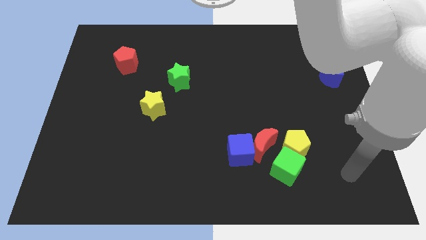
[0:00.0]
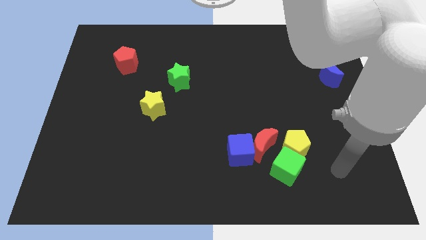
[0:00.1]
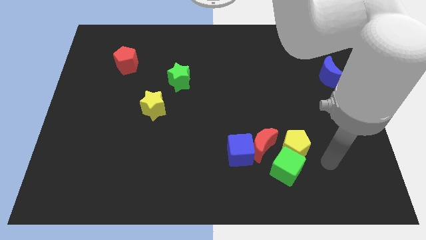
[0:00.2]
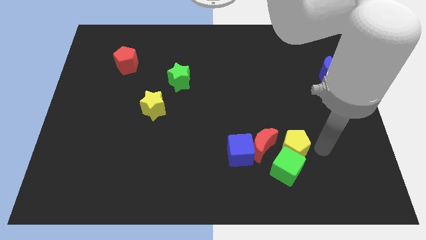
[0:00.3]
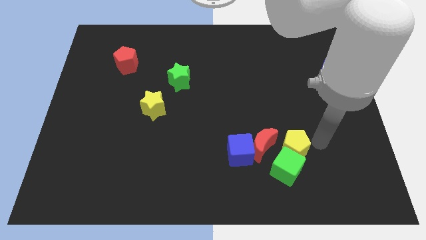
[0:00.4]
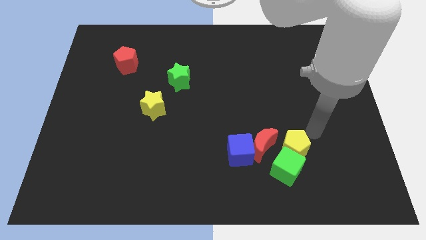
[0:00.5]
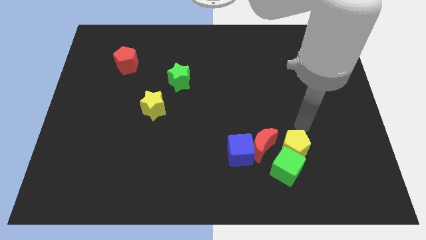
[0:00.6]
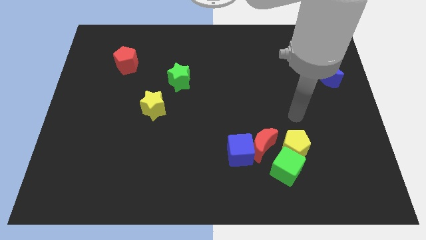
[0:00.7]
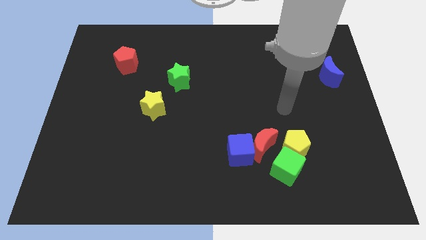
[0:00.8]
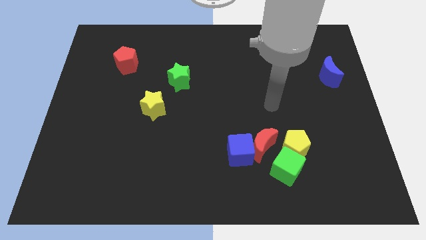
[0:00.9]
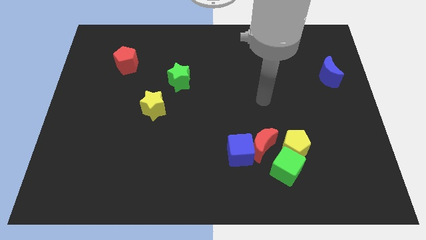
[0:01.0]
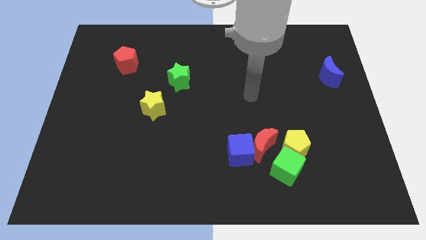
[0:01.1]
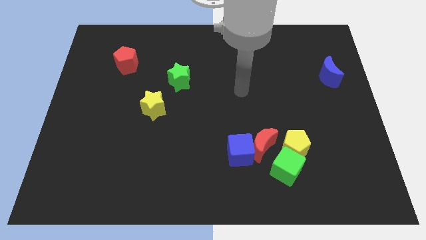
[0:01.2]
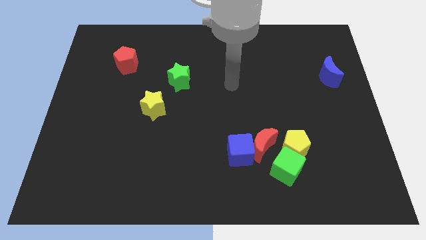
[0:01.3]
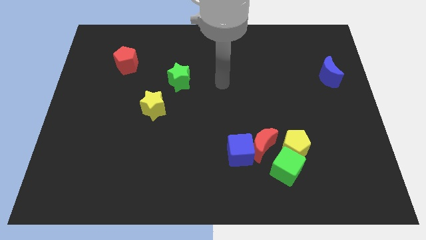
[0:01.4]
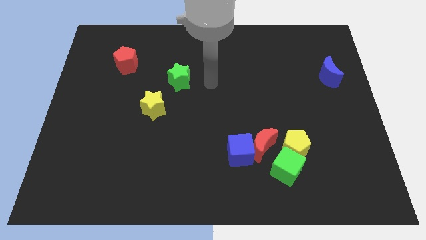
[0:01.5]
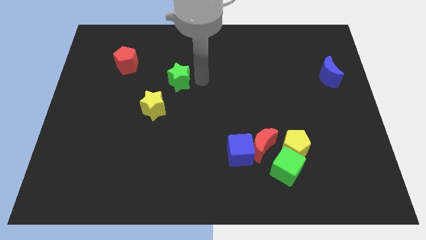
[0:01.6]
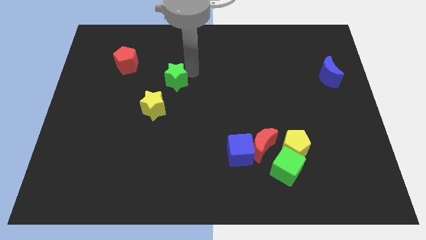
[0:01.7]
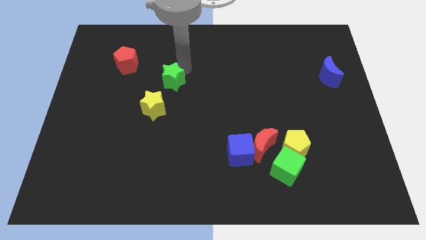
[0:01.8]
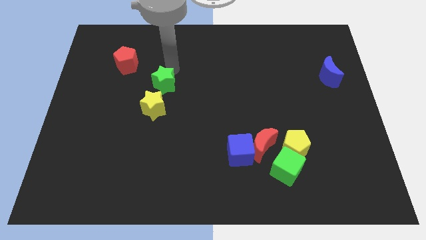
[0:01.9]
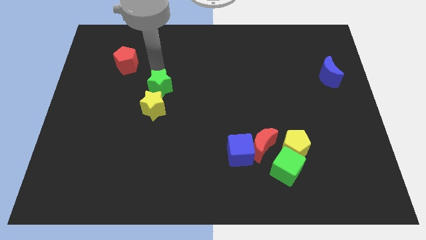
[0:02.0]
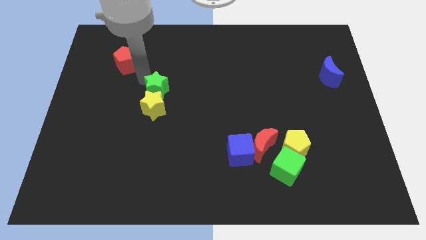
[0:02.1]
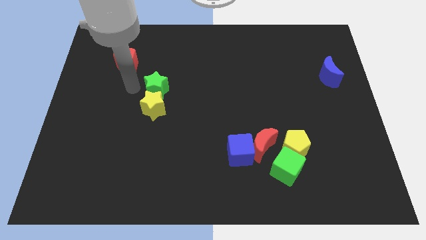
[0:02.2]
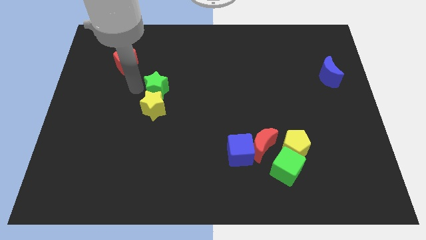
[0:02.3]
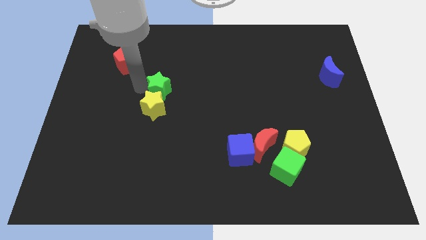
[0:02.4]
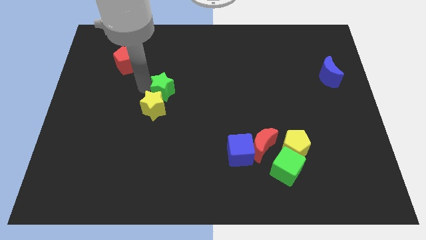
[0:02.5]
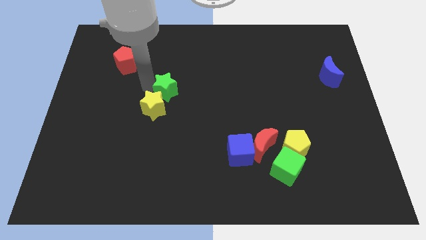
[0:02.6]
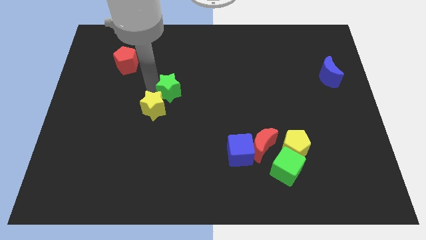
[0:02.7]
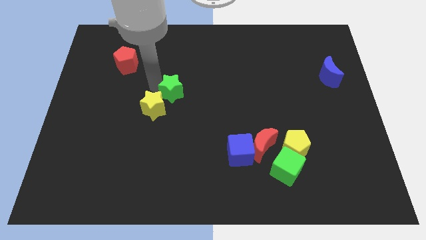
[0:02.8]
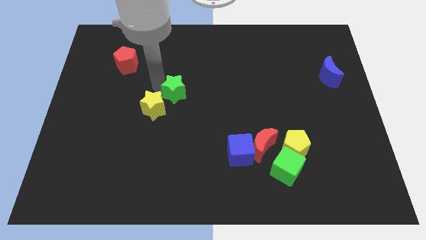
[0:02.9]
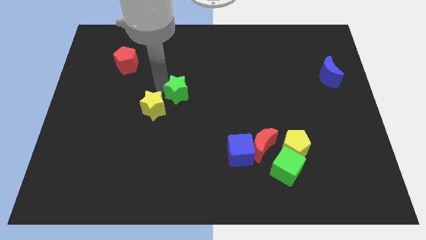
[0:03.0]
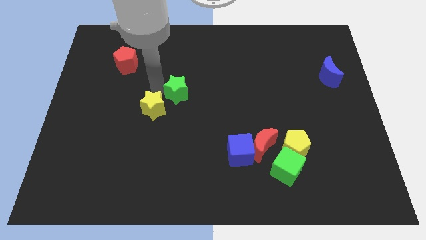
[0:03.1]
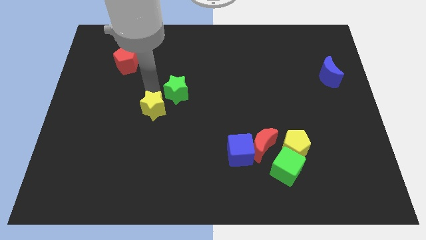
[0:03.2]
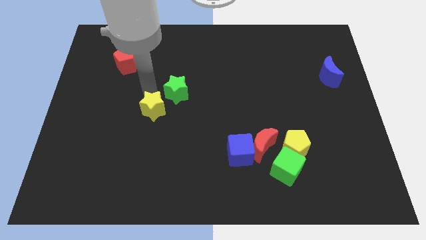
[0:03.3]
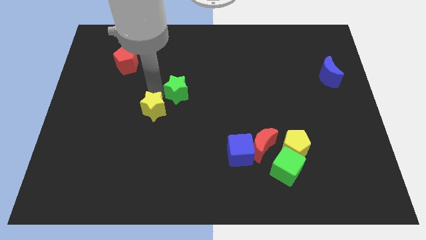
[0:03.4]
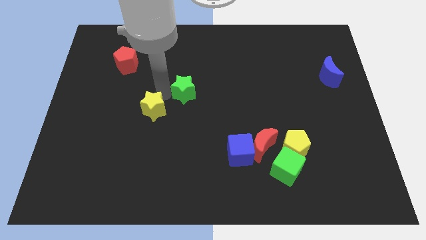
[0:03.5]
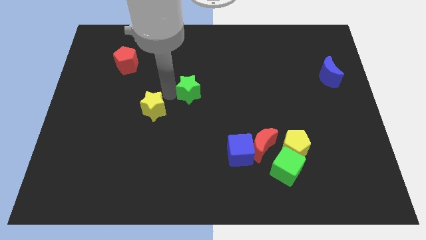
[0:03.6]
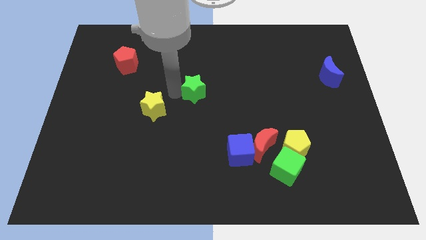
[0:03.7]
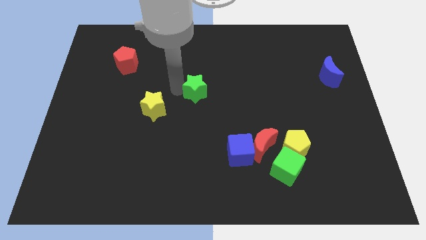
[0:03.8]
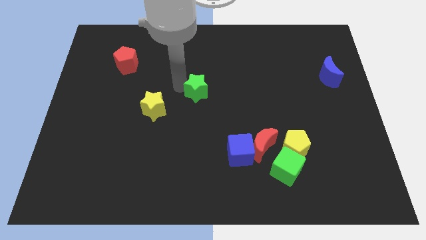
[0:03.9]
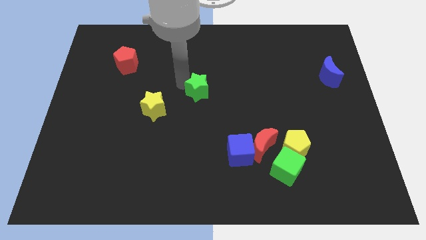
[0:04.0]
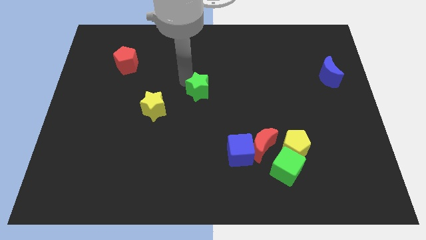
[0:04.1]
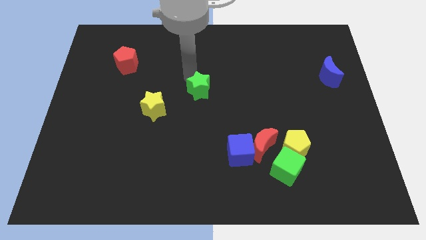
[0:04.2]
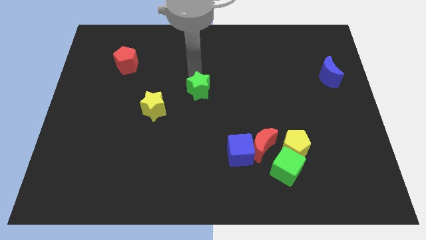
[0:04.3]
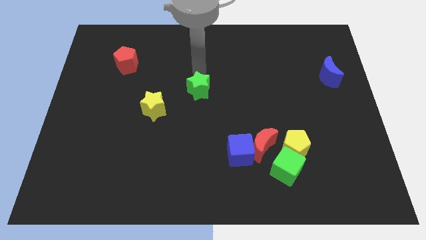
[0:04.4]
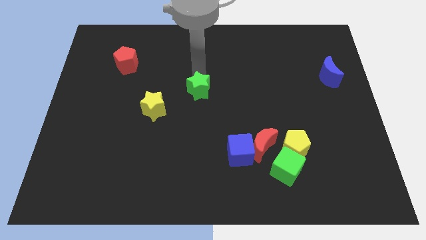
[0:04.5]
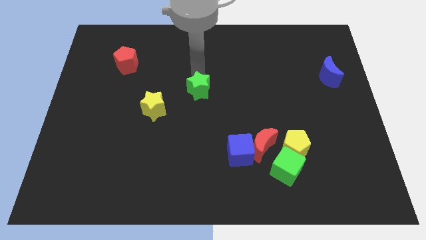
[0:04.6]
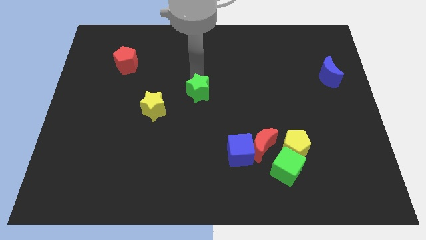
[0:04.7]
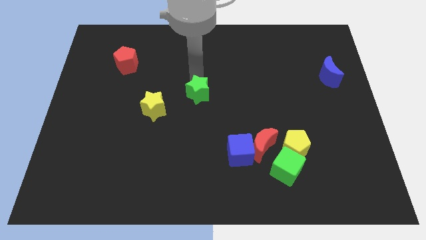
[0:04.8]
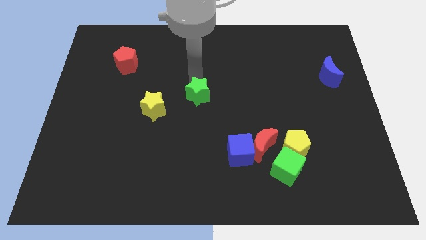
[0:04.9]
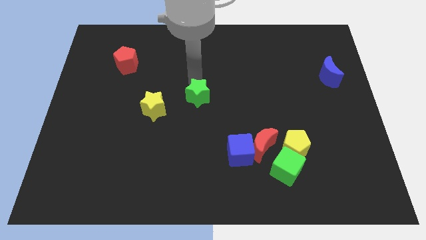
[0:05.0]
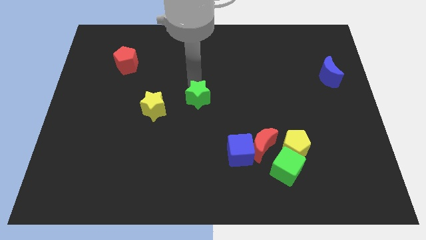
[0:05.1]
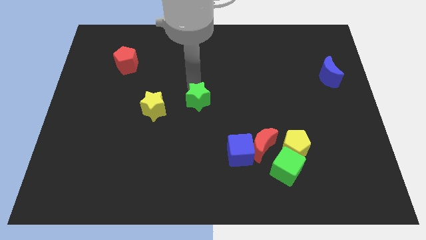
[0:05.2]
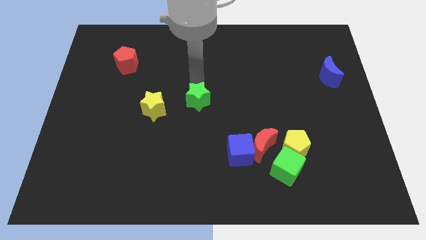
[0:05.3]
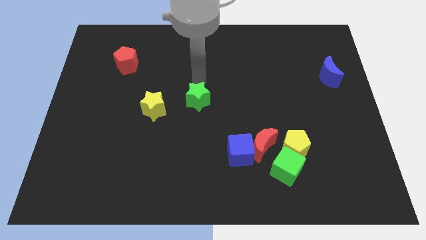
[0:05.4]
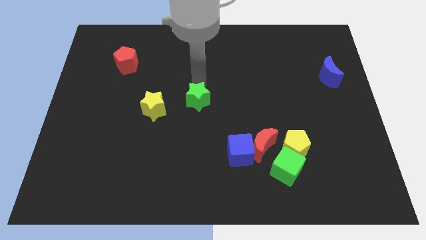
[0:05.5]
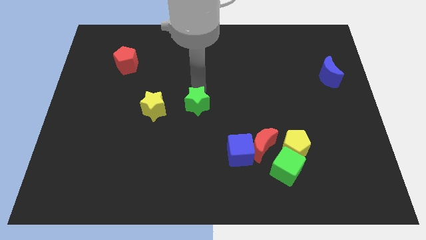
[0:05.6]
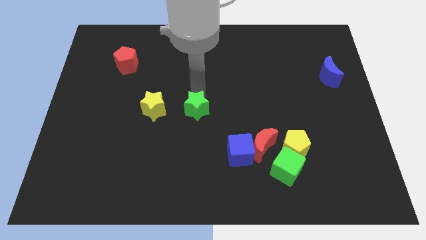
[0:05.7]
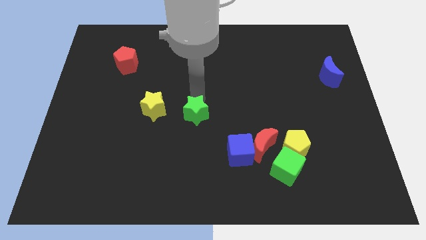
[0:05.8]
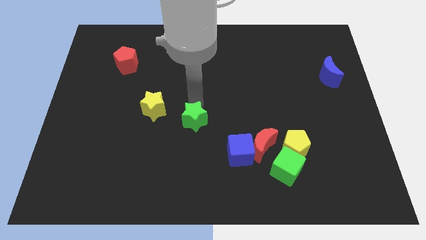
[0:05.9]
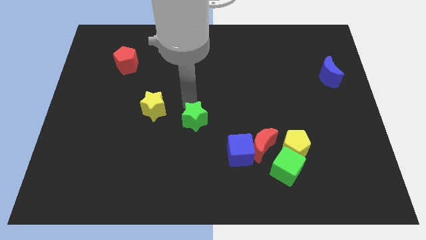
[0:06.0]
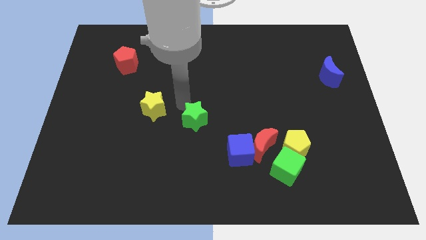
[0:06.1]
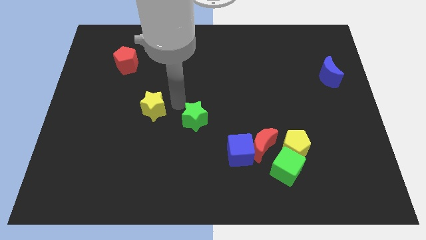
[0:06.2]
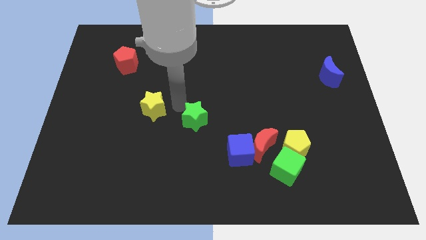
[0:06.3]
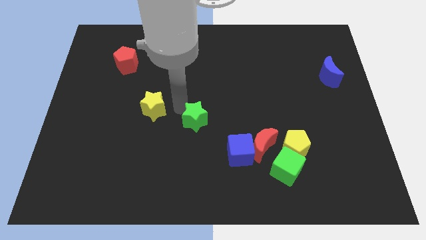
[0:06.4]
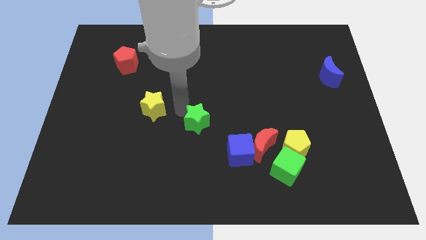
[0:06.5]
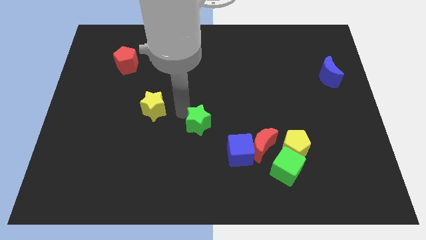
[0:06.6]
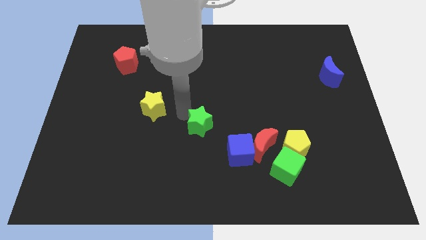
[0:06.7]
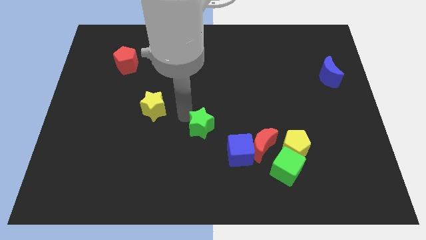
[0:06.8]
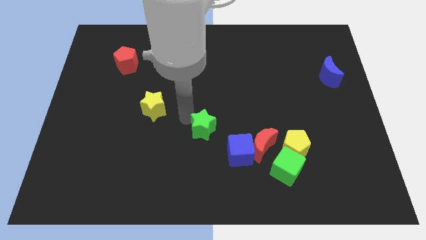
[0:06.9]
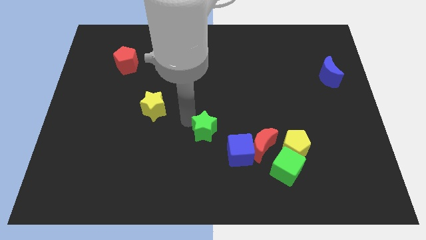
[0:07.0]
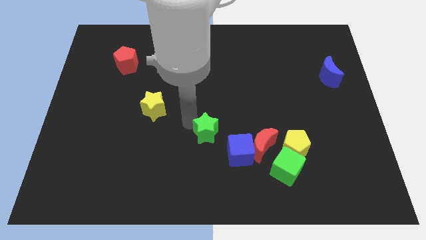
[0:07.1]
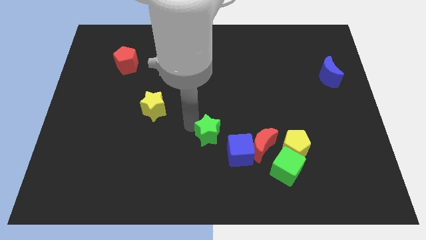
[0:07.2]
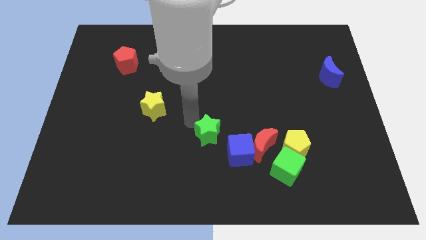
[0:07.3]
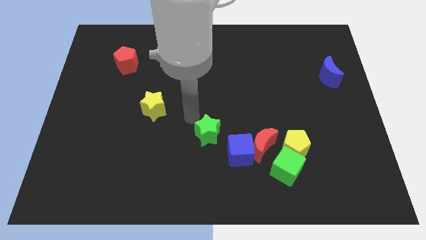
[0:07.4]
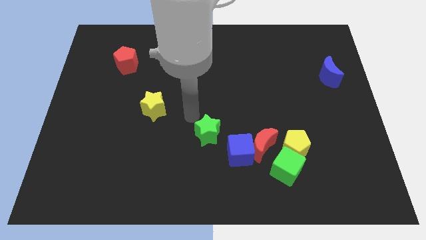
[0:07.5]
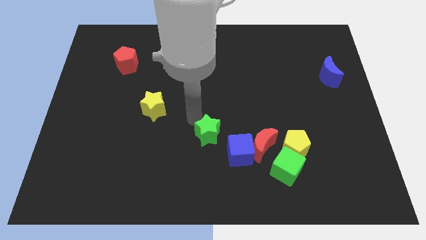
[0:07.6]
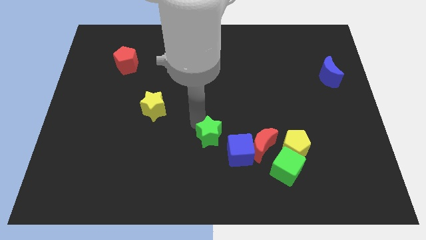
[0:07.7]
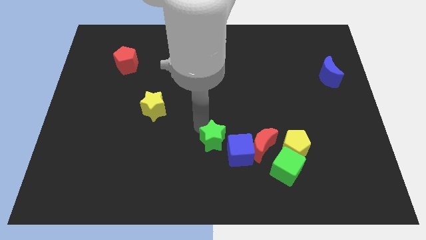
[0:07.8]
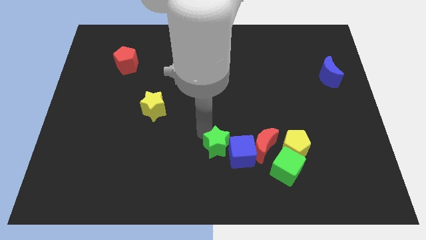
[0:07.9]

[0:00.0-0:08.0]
move the green star left of the yellow pentagon
